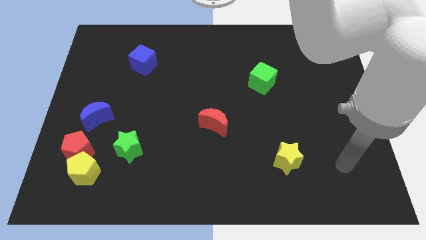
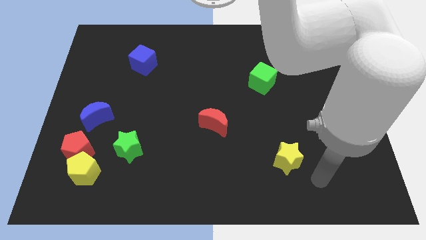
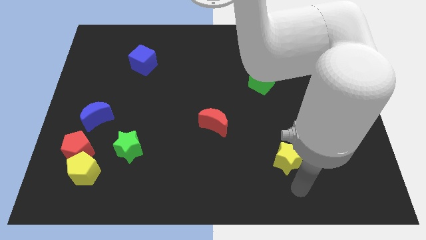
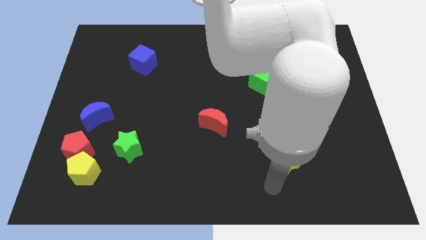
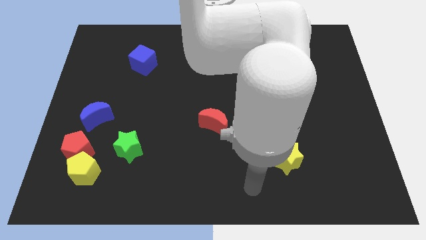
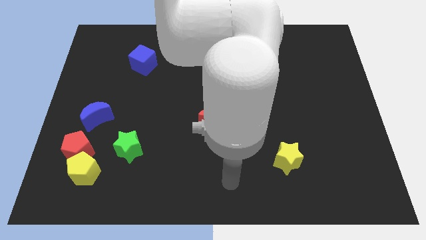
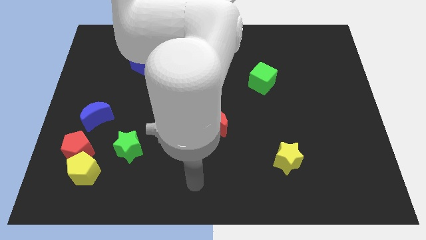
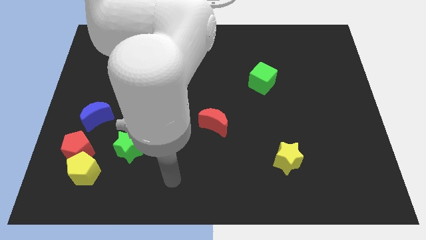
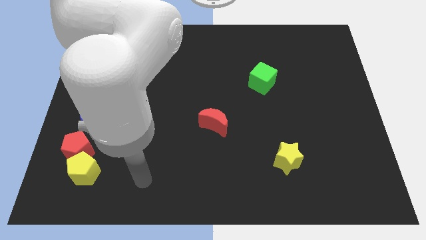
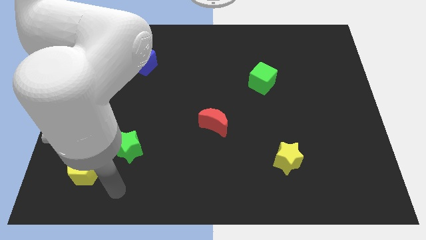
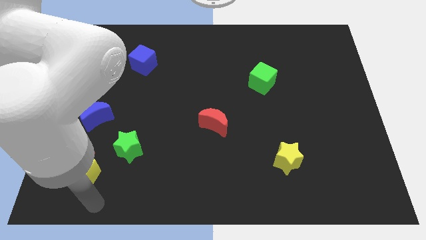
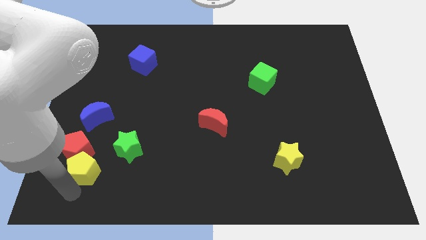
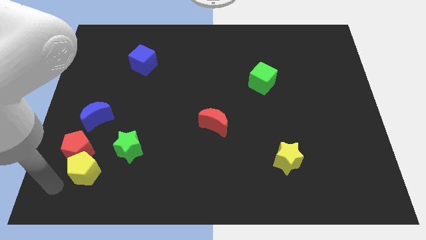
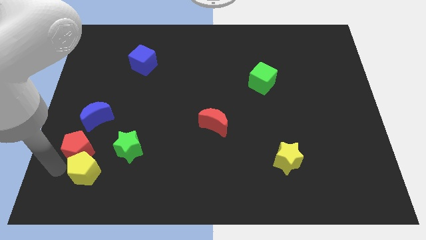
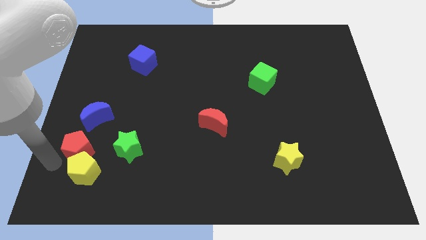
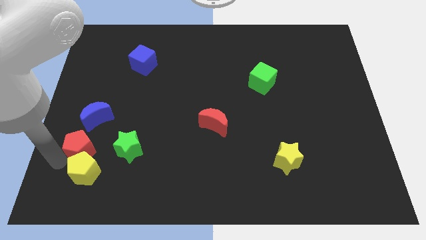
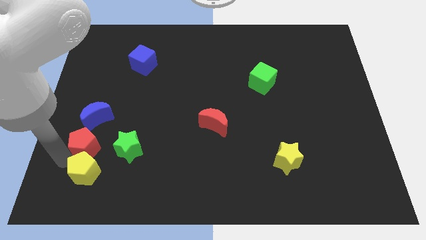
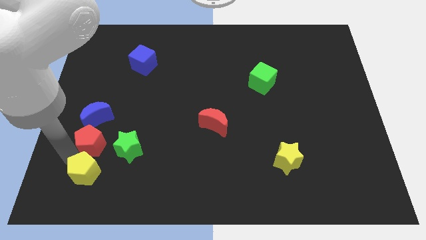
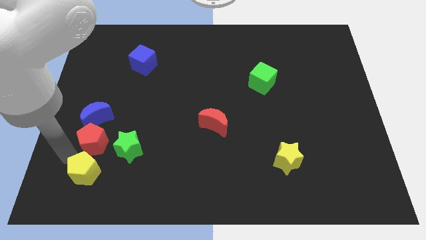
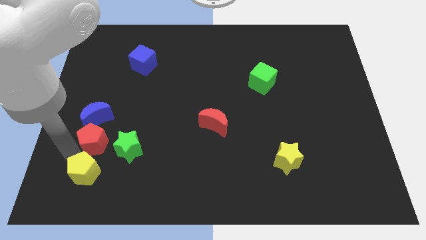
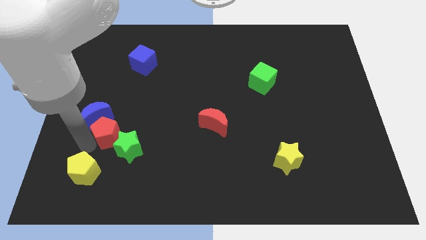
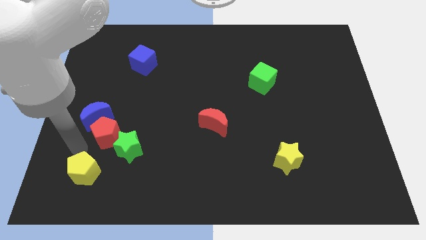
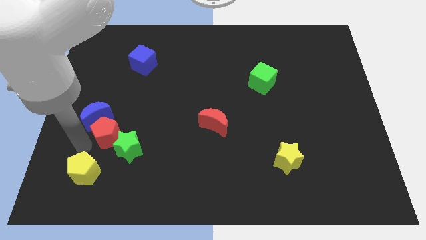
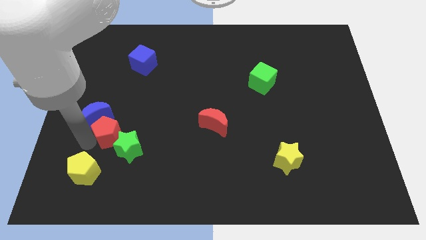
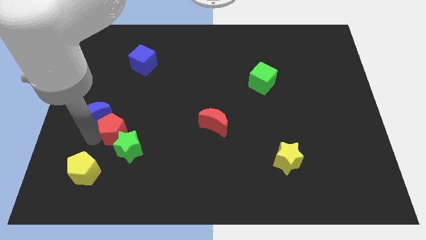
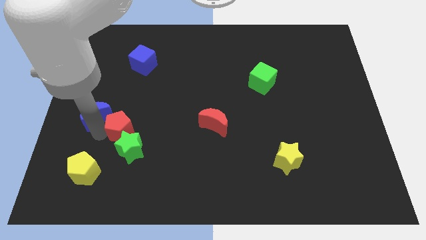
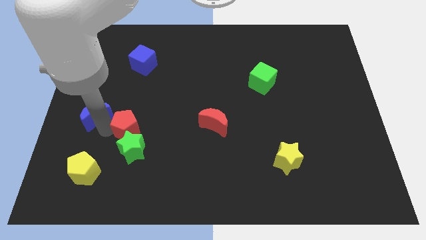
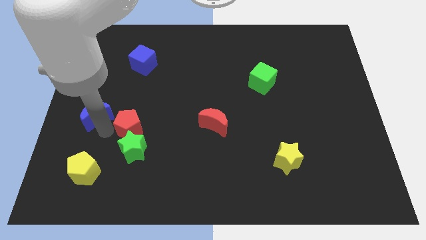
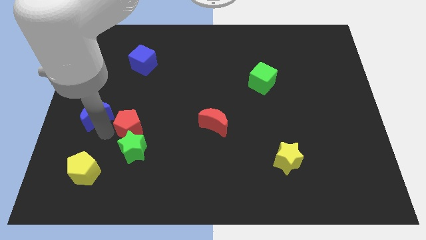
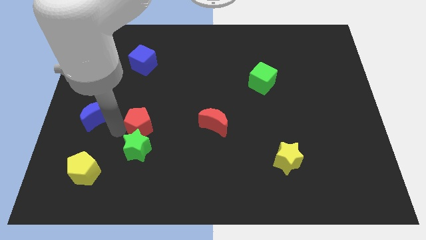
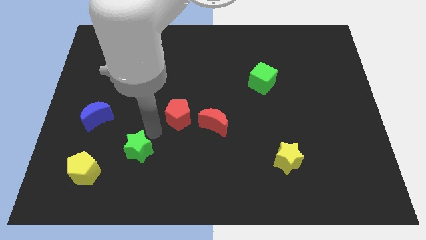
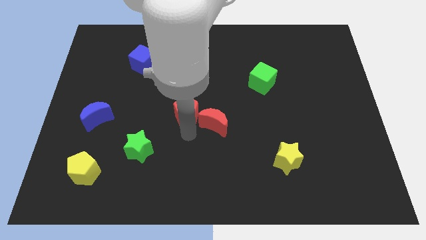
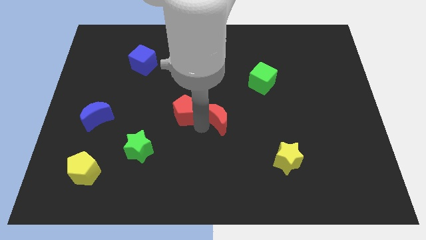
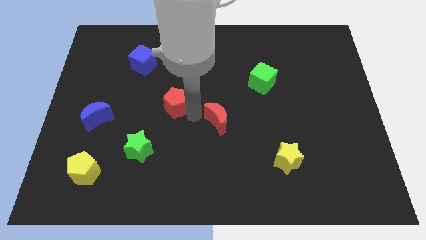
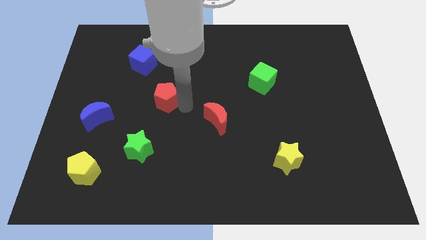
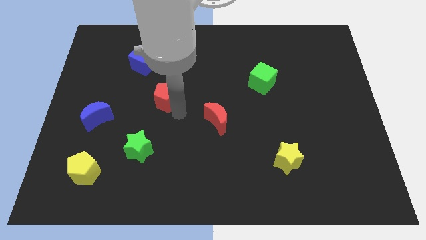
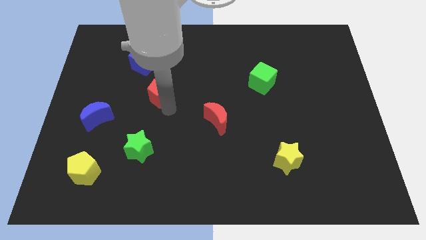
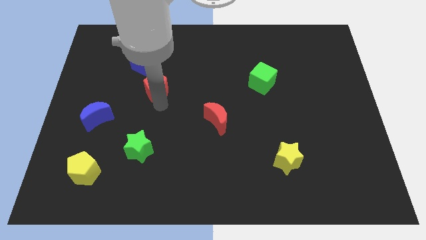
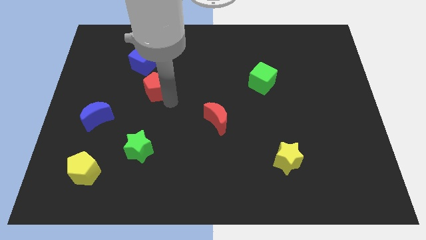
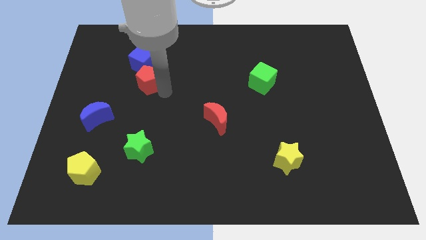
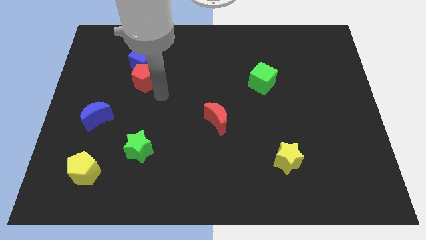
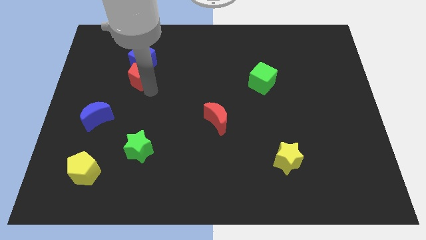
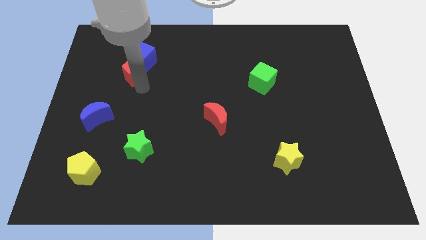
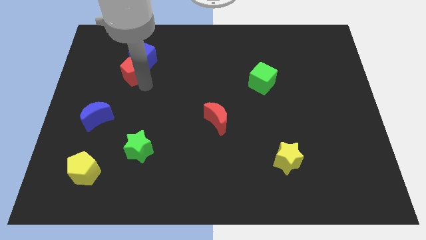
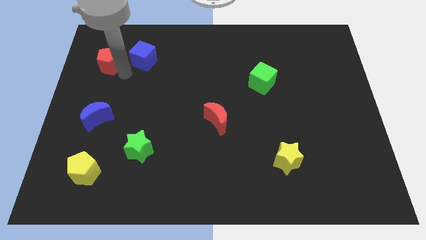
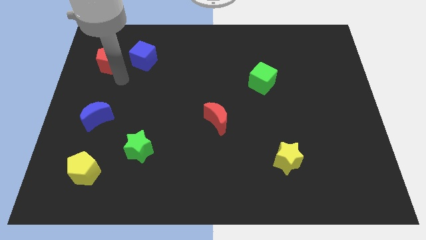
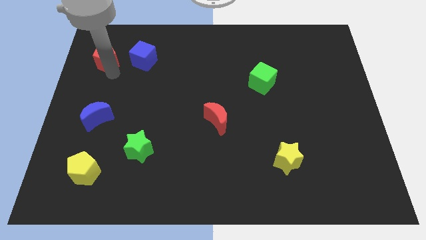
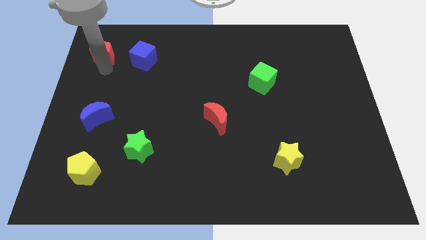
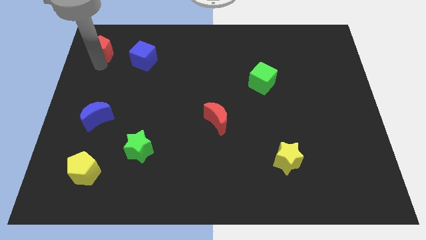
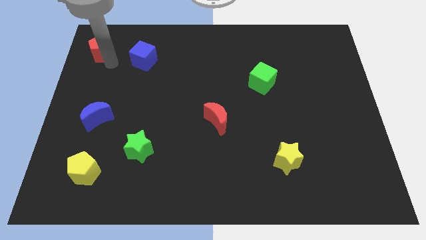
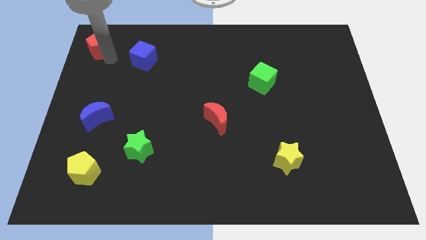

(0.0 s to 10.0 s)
move the red pentagon to the top left
